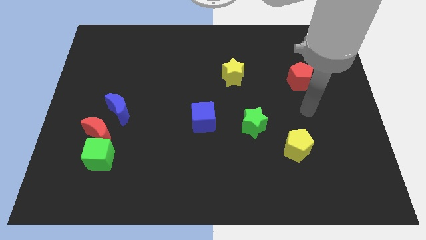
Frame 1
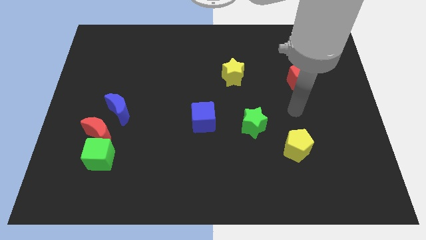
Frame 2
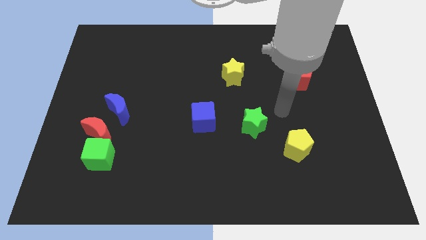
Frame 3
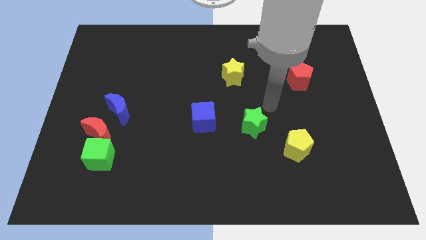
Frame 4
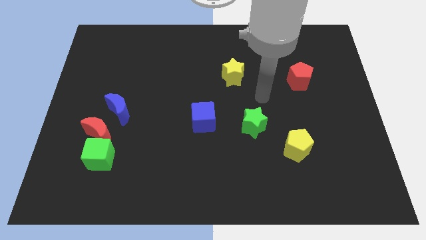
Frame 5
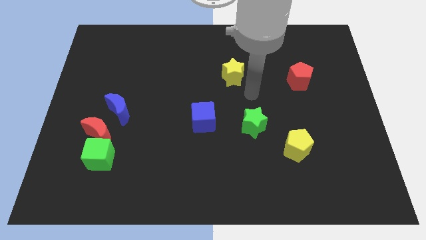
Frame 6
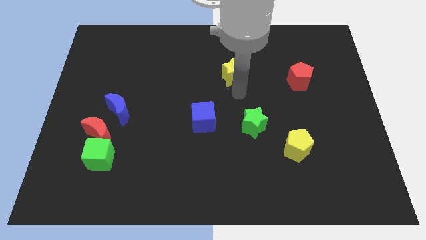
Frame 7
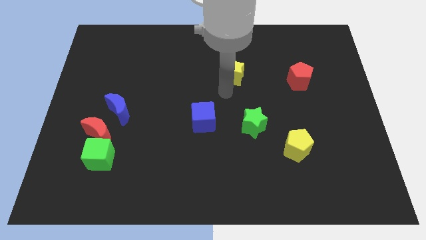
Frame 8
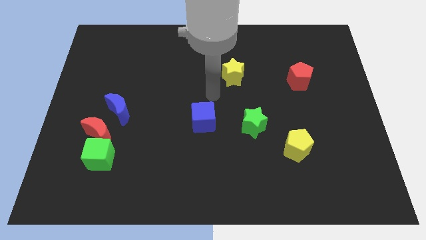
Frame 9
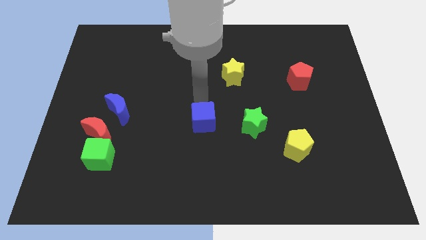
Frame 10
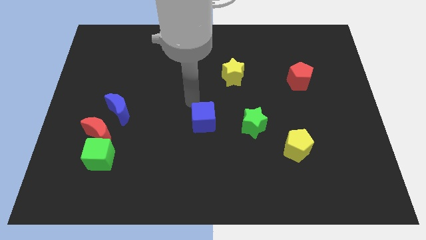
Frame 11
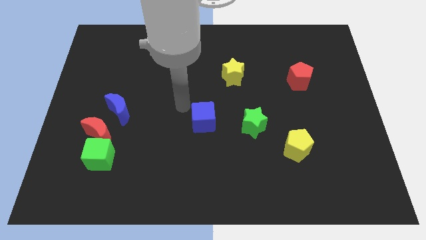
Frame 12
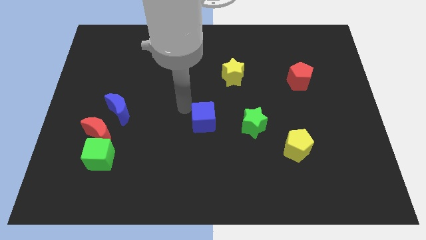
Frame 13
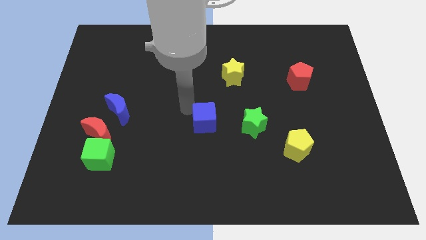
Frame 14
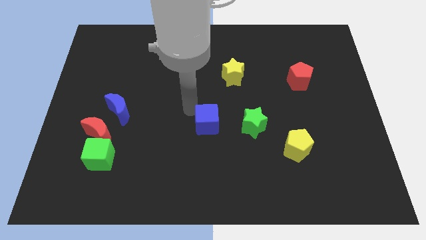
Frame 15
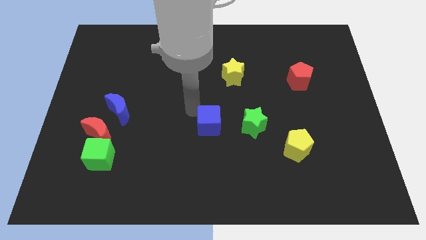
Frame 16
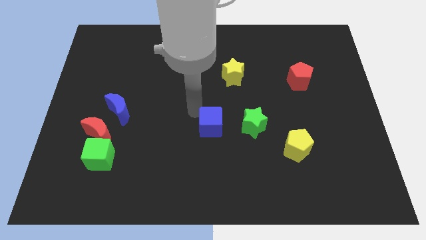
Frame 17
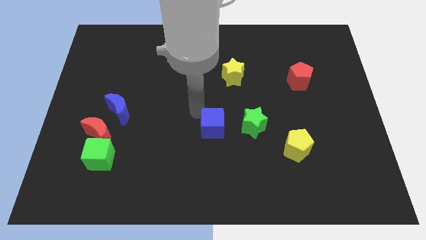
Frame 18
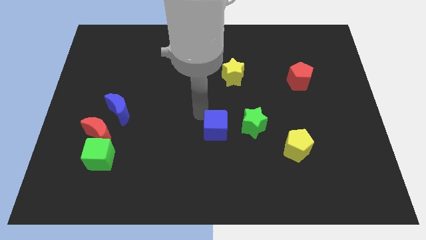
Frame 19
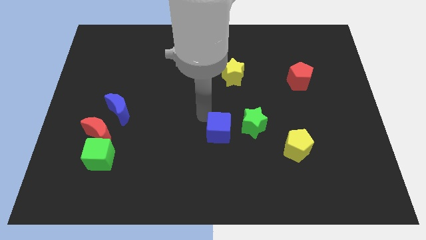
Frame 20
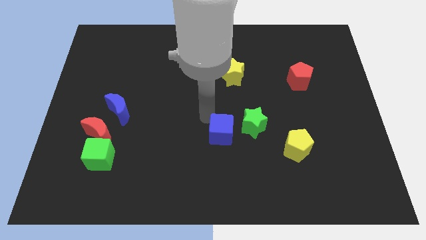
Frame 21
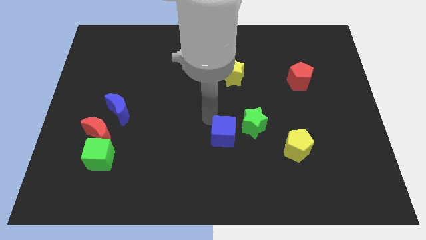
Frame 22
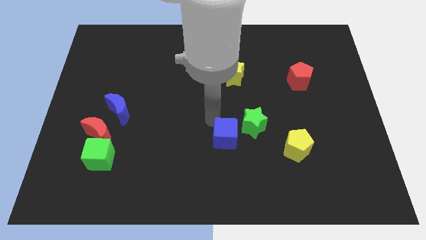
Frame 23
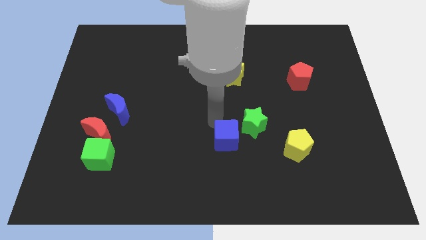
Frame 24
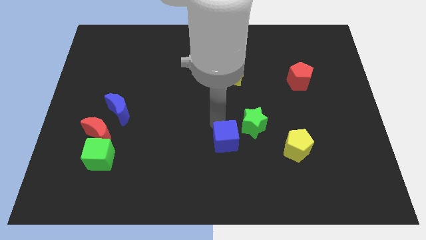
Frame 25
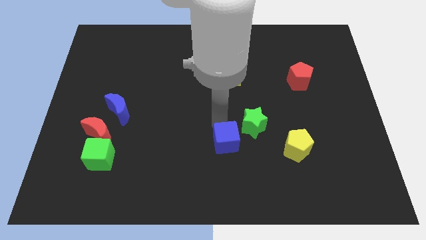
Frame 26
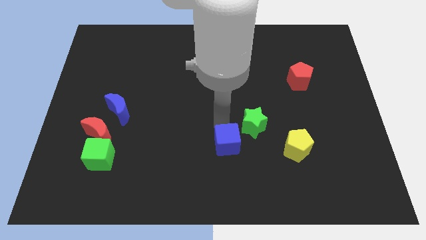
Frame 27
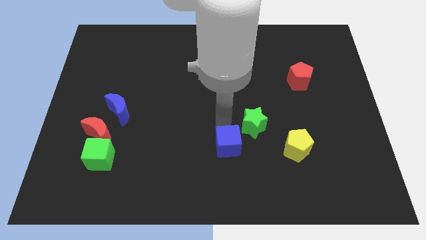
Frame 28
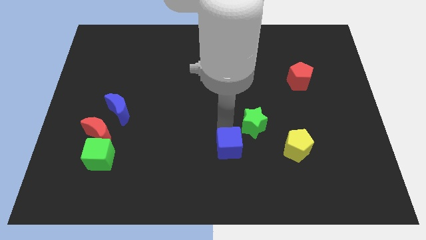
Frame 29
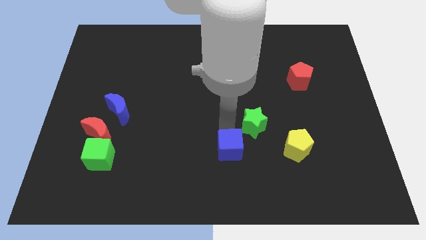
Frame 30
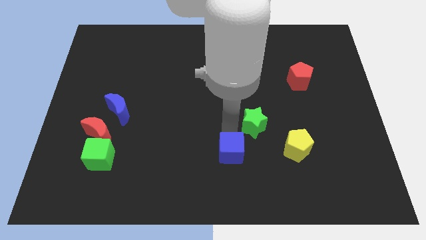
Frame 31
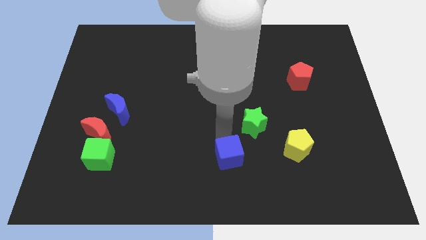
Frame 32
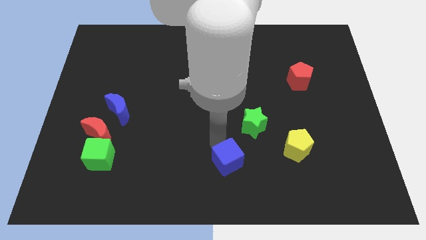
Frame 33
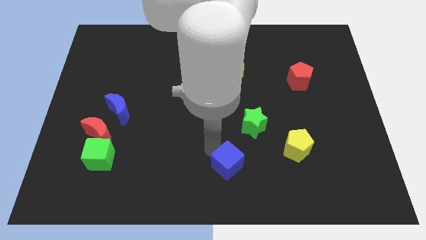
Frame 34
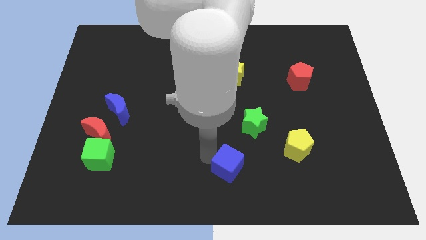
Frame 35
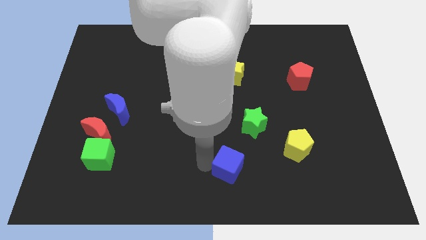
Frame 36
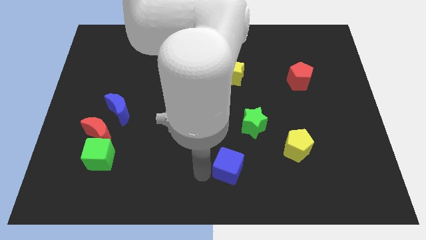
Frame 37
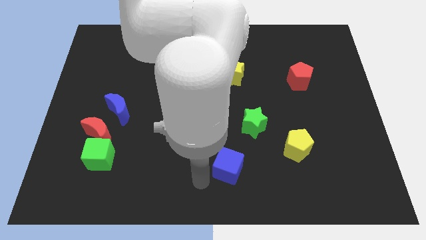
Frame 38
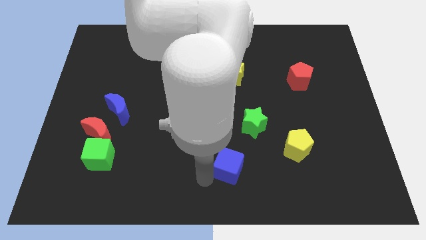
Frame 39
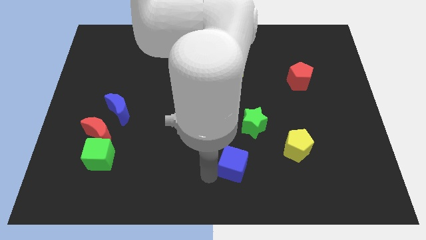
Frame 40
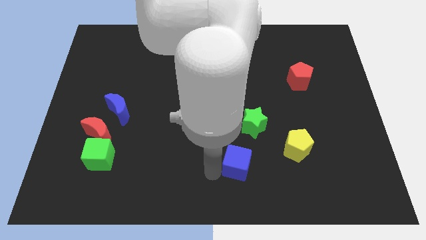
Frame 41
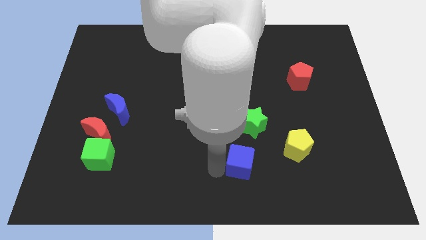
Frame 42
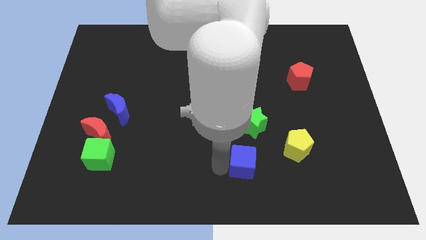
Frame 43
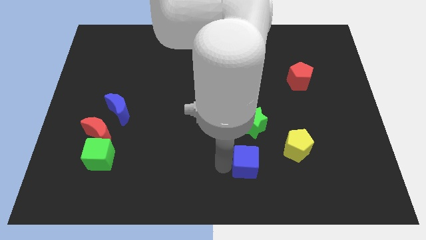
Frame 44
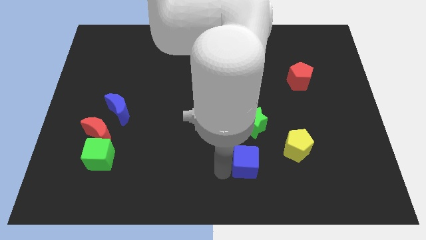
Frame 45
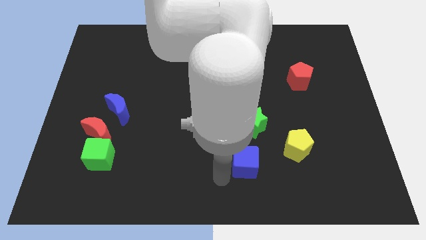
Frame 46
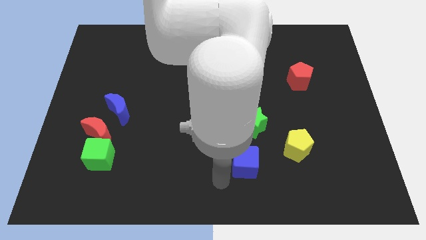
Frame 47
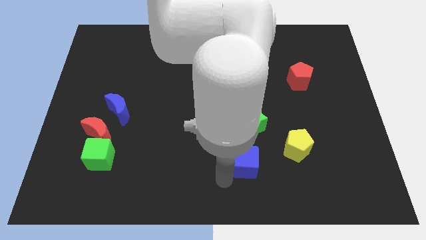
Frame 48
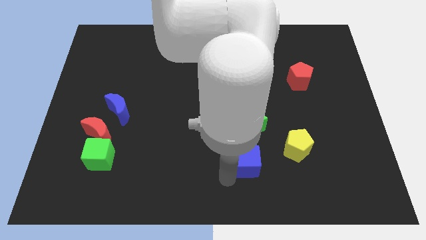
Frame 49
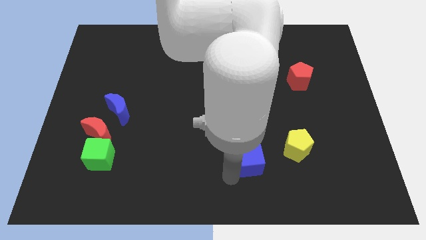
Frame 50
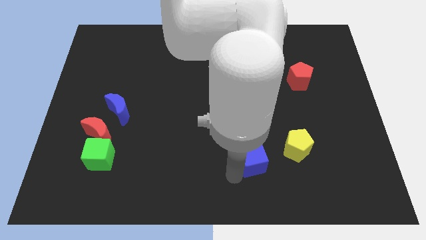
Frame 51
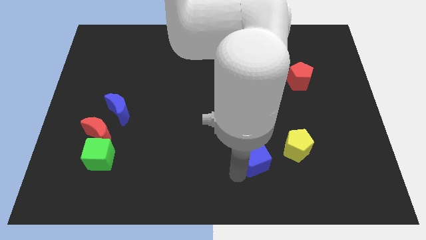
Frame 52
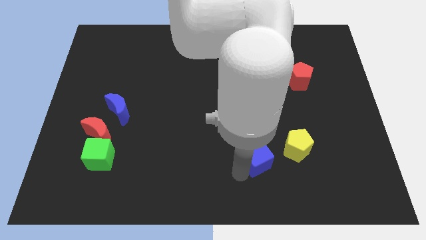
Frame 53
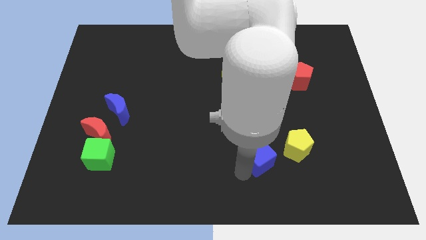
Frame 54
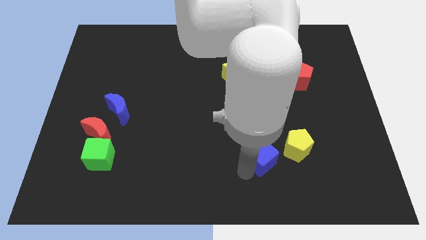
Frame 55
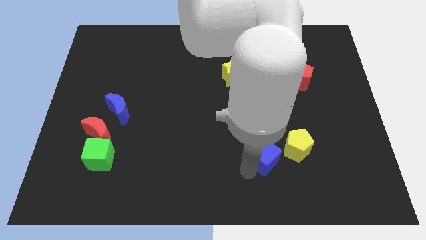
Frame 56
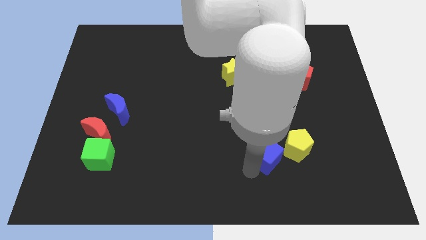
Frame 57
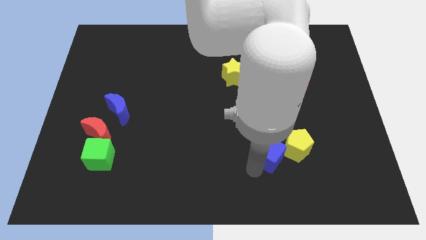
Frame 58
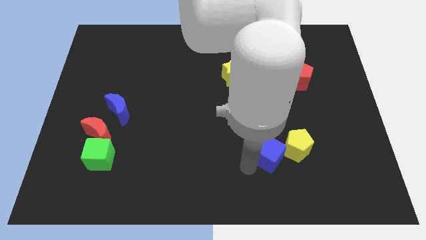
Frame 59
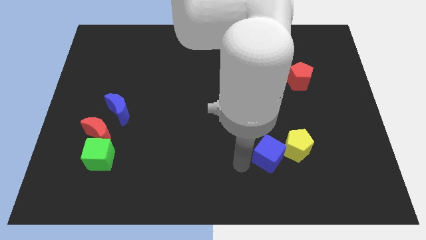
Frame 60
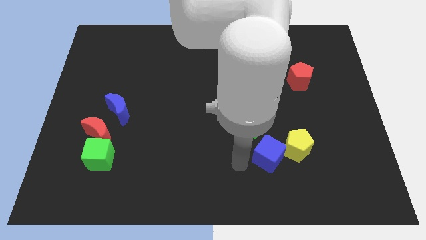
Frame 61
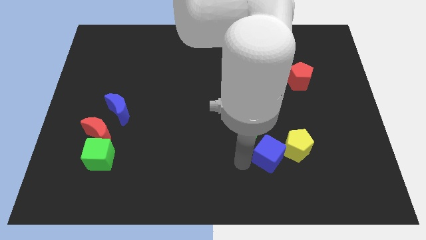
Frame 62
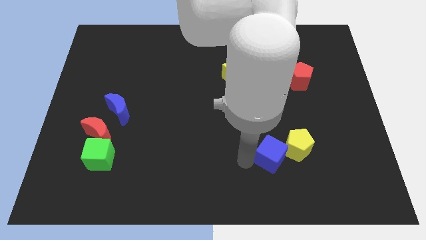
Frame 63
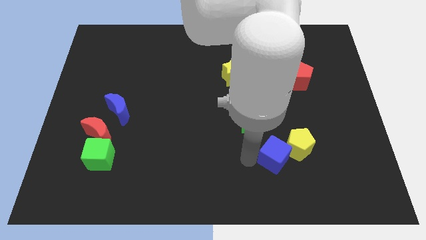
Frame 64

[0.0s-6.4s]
move the blue cube to the yellow pentagon
